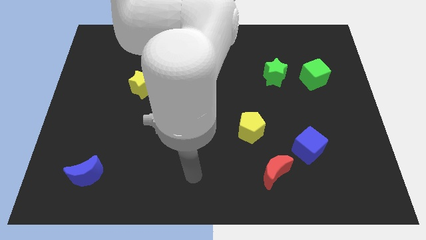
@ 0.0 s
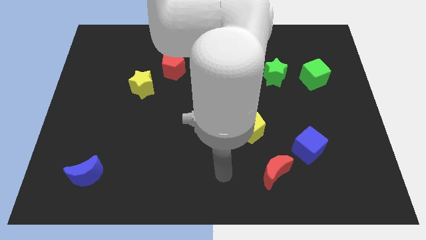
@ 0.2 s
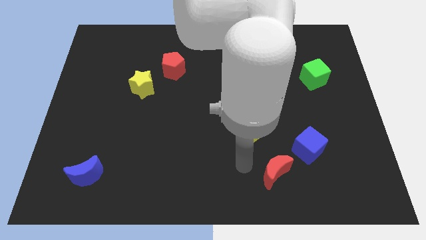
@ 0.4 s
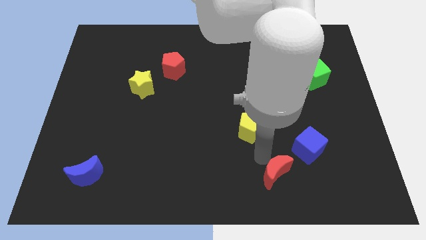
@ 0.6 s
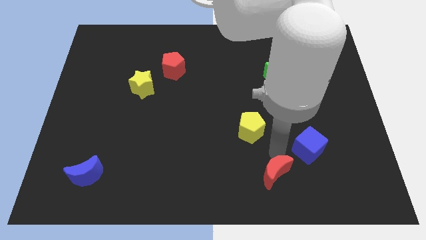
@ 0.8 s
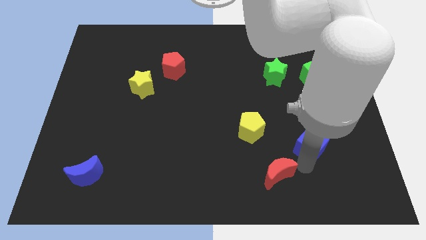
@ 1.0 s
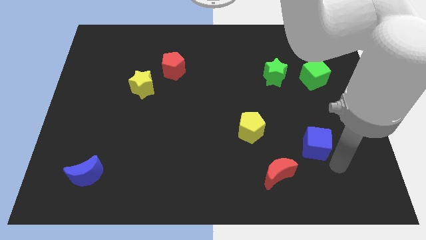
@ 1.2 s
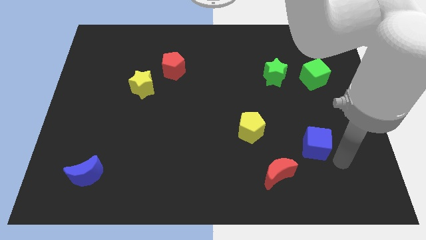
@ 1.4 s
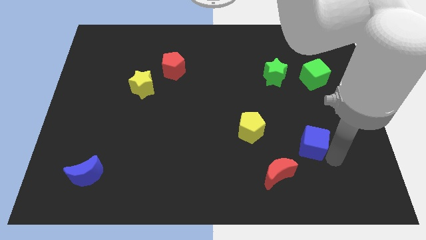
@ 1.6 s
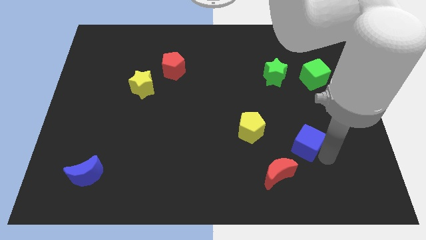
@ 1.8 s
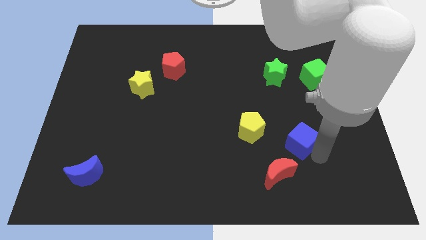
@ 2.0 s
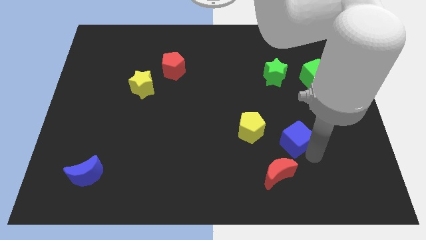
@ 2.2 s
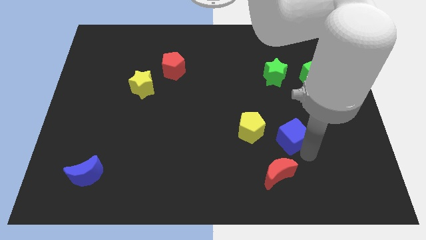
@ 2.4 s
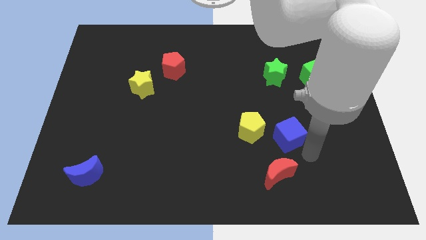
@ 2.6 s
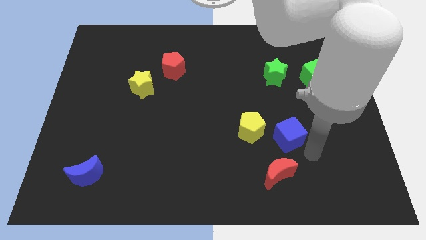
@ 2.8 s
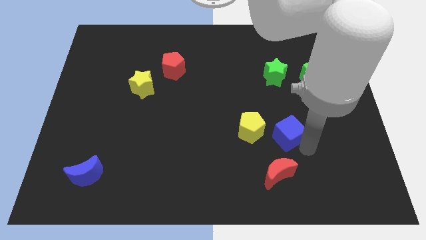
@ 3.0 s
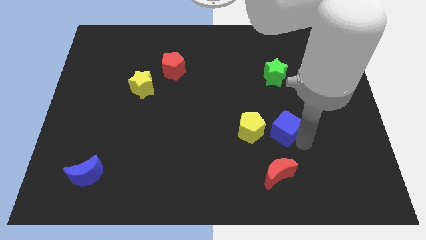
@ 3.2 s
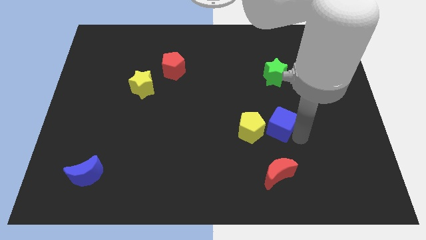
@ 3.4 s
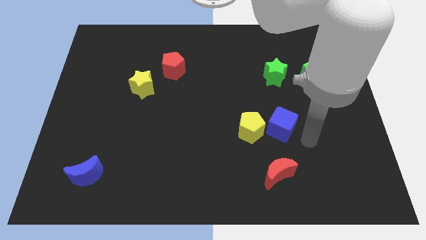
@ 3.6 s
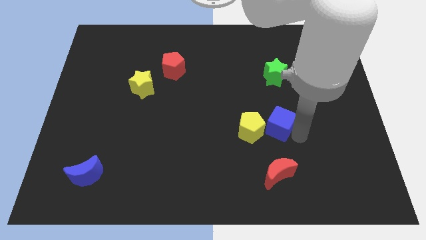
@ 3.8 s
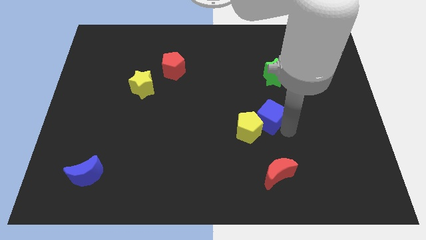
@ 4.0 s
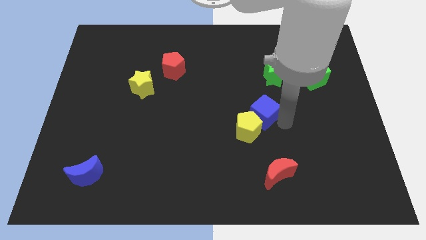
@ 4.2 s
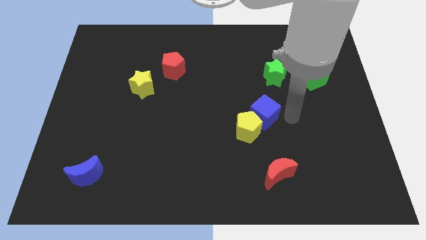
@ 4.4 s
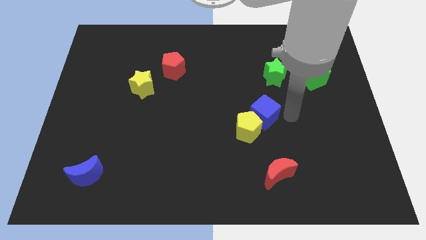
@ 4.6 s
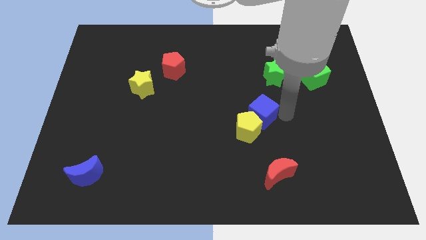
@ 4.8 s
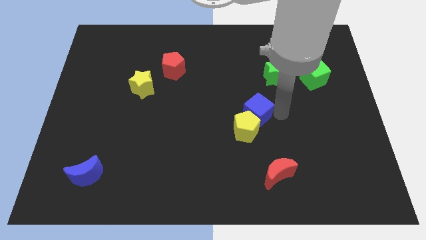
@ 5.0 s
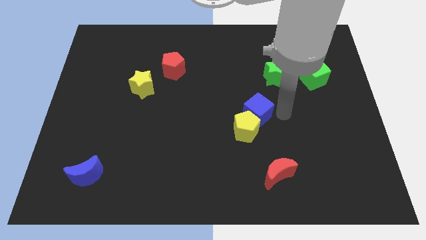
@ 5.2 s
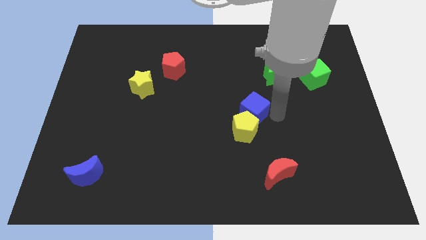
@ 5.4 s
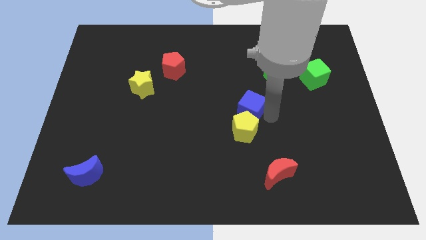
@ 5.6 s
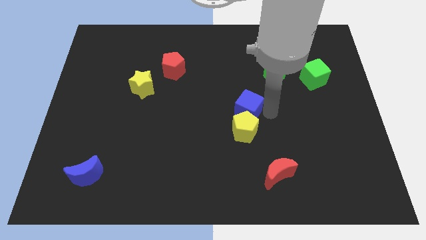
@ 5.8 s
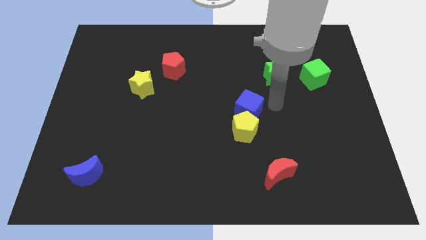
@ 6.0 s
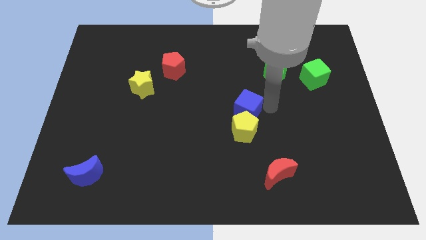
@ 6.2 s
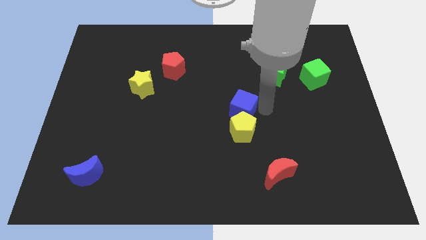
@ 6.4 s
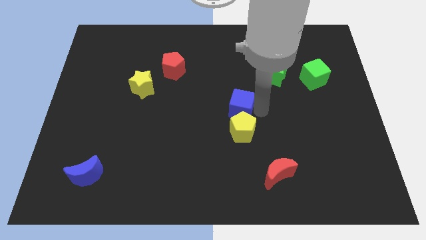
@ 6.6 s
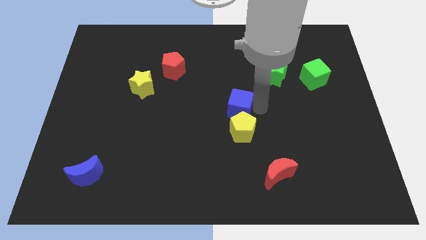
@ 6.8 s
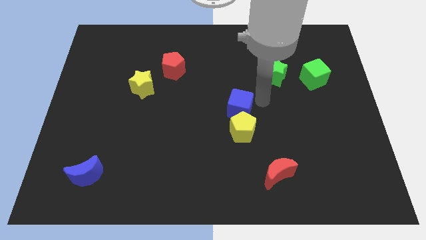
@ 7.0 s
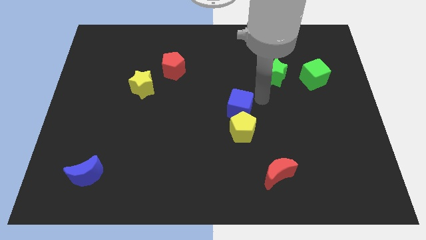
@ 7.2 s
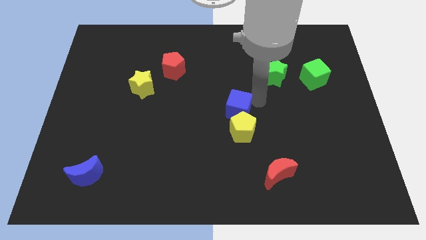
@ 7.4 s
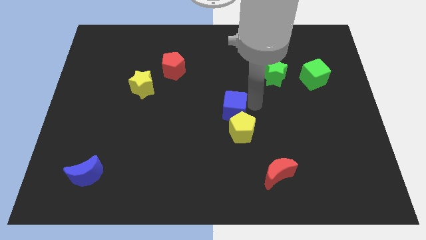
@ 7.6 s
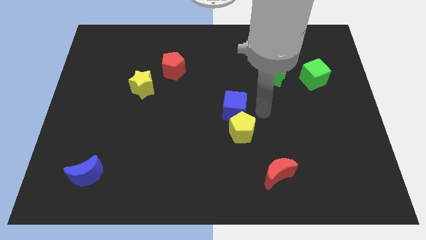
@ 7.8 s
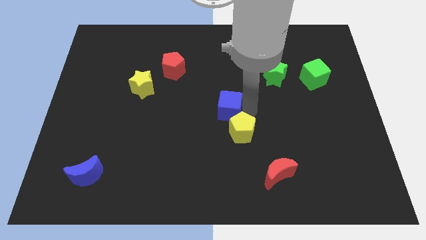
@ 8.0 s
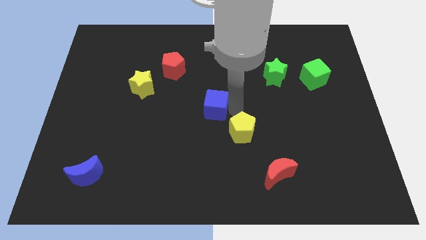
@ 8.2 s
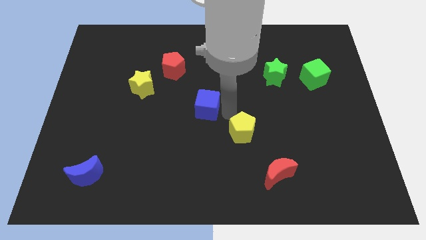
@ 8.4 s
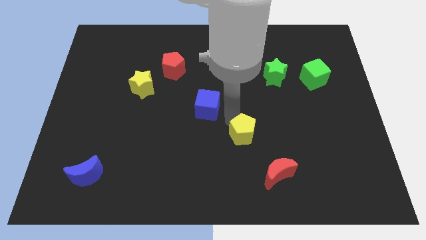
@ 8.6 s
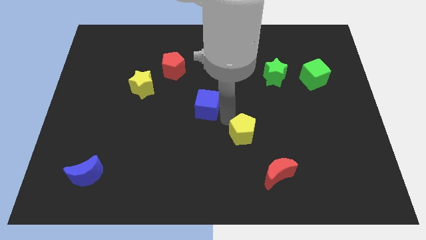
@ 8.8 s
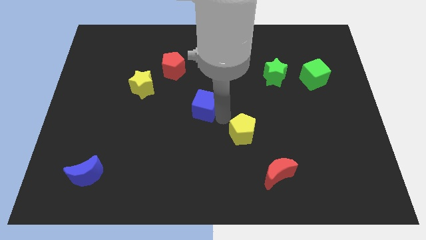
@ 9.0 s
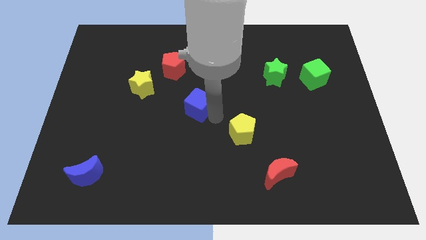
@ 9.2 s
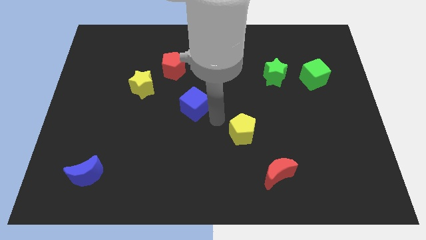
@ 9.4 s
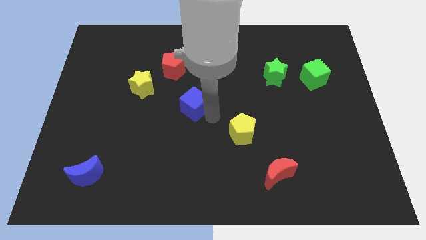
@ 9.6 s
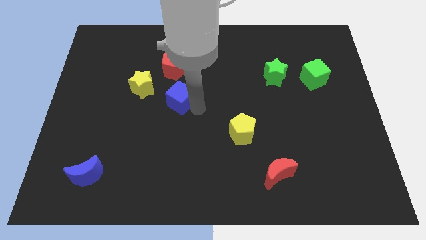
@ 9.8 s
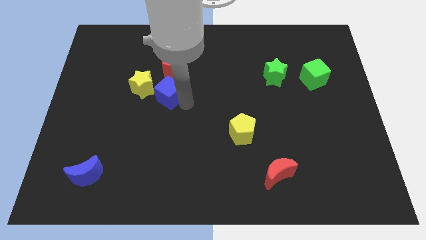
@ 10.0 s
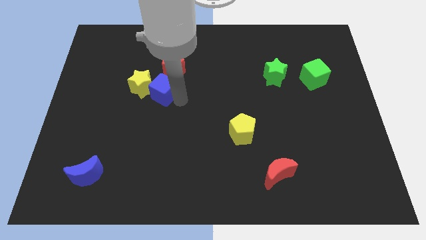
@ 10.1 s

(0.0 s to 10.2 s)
move the blue cube towards the yellow star

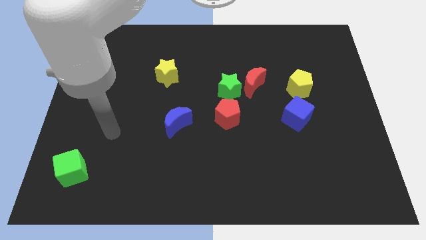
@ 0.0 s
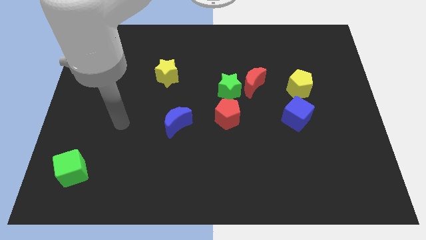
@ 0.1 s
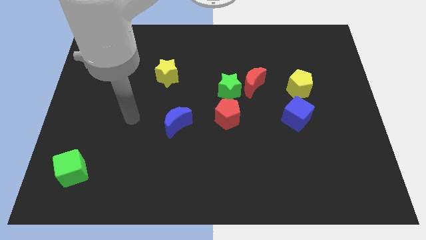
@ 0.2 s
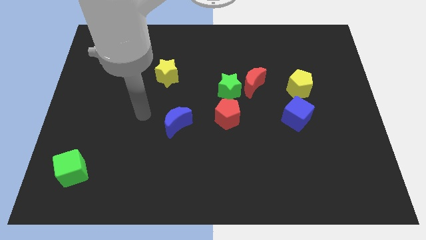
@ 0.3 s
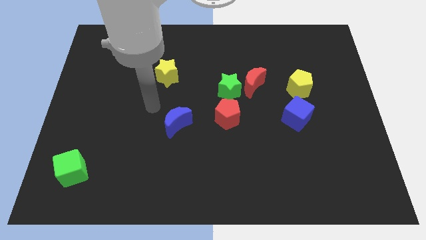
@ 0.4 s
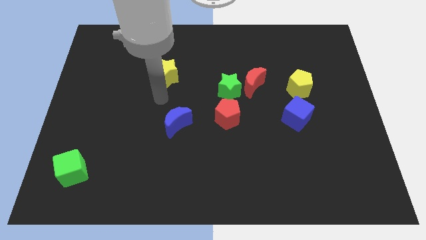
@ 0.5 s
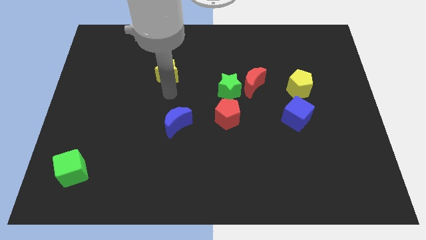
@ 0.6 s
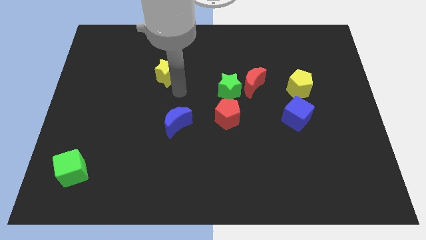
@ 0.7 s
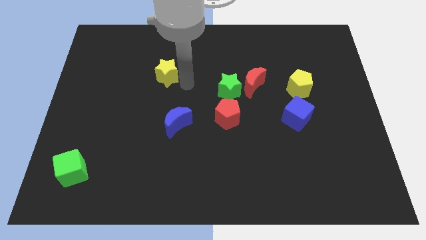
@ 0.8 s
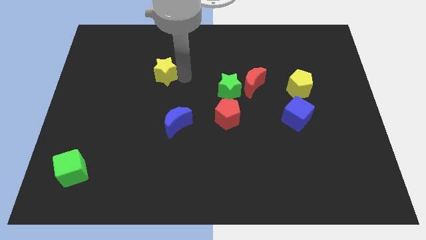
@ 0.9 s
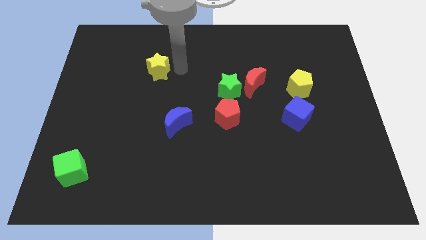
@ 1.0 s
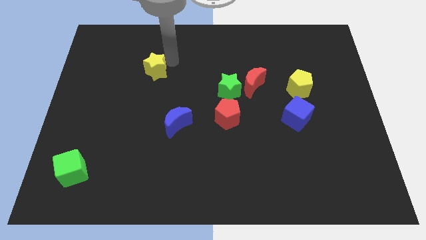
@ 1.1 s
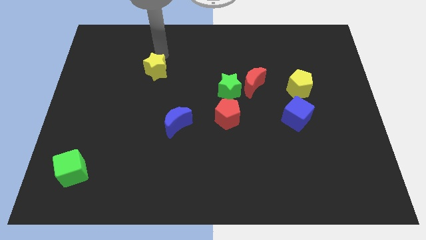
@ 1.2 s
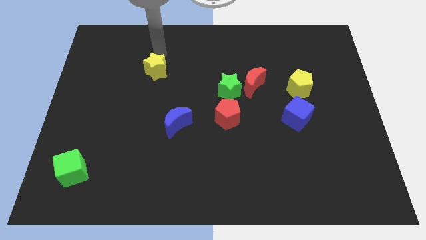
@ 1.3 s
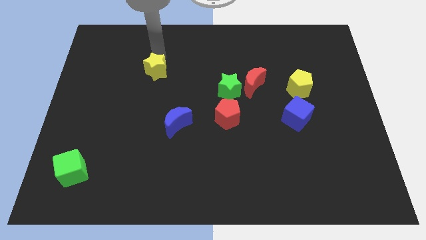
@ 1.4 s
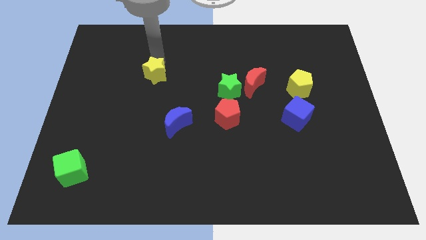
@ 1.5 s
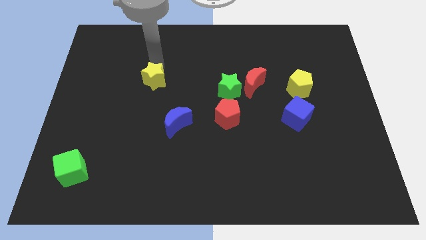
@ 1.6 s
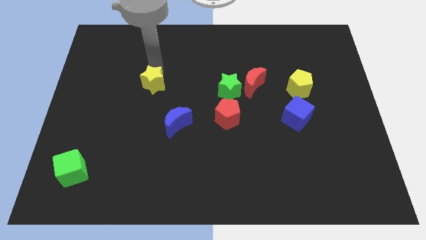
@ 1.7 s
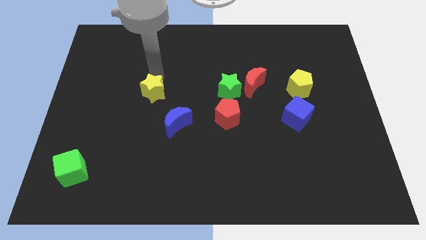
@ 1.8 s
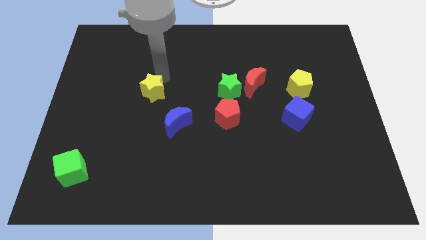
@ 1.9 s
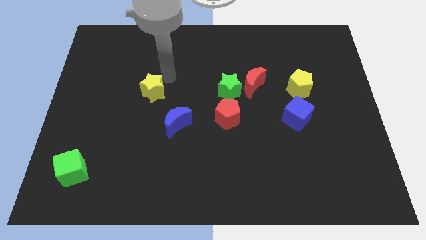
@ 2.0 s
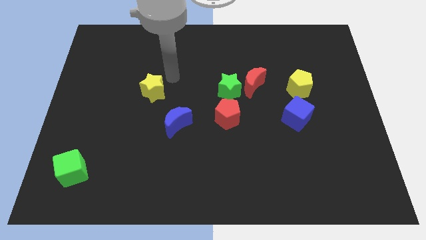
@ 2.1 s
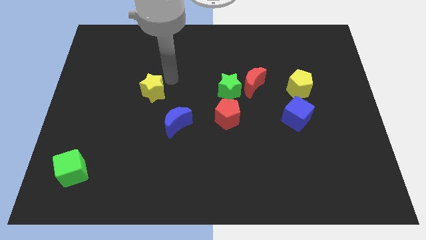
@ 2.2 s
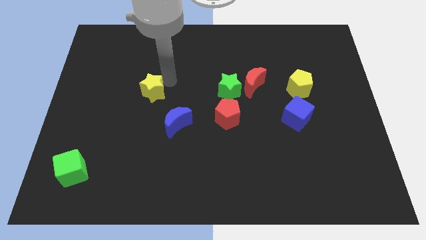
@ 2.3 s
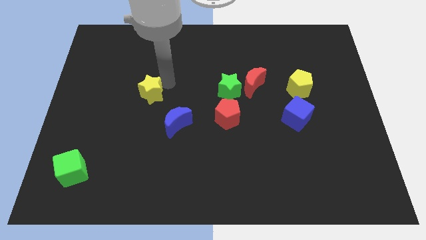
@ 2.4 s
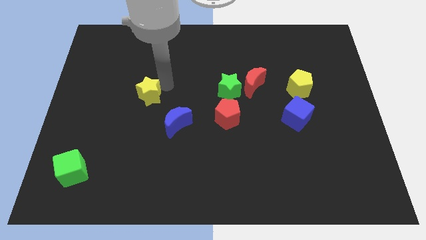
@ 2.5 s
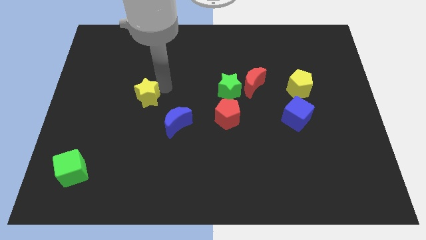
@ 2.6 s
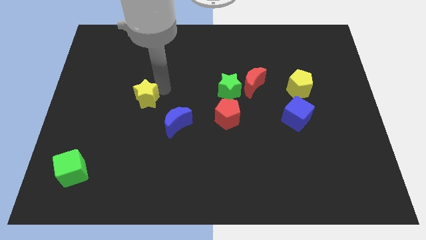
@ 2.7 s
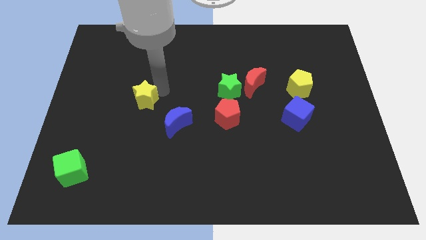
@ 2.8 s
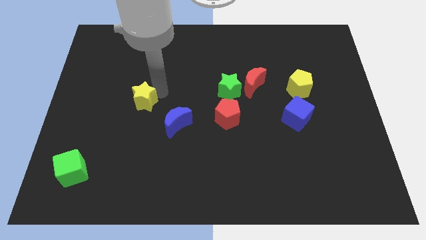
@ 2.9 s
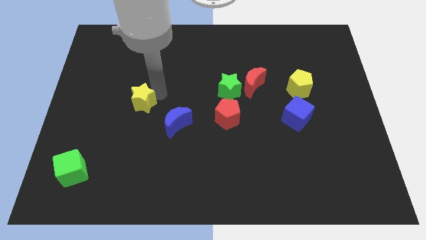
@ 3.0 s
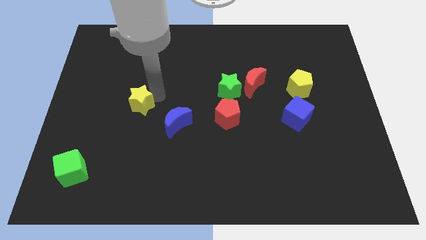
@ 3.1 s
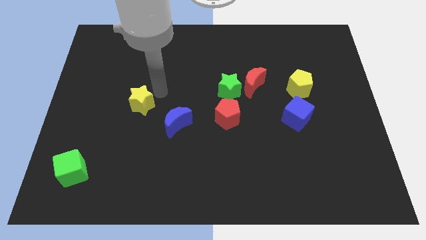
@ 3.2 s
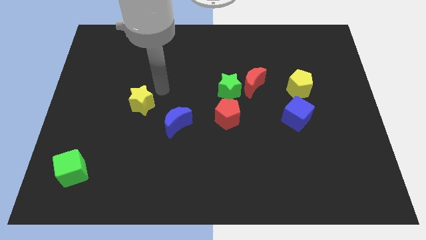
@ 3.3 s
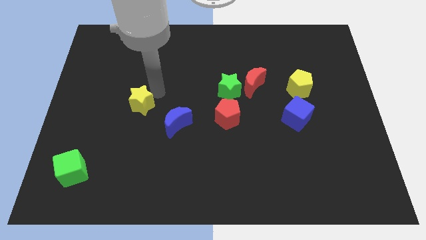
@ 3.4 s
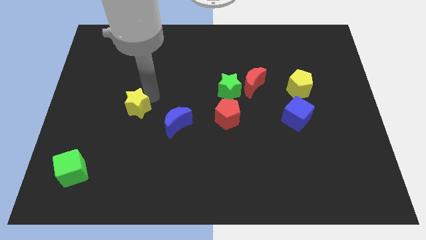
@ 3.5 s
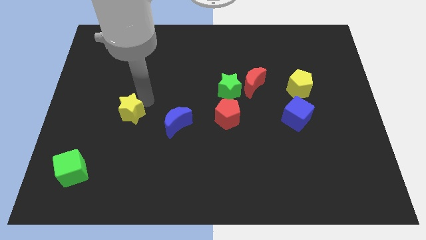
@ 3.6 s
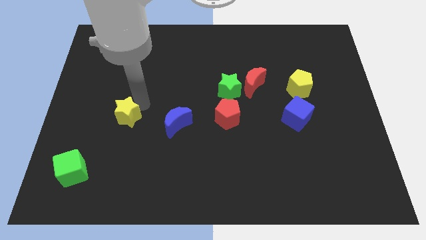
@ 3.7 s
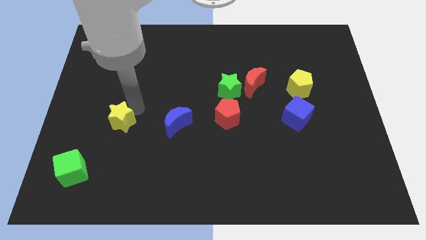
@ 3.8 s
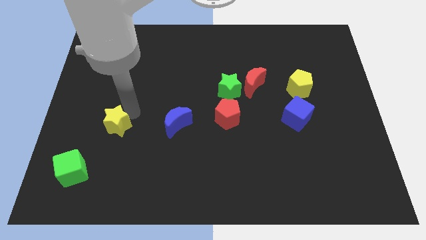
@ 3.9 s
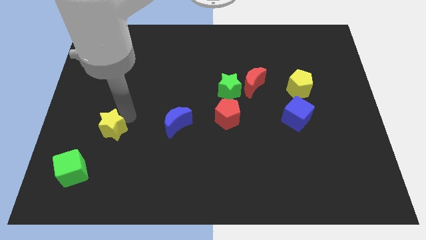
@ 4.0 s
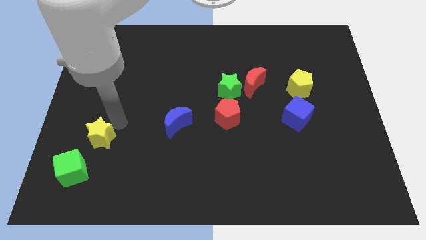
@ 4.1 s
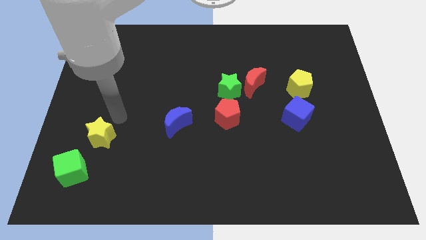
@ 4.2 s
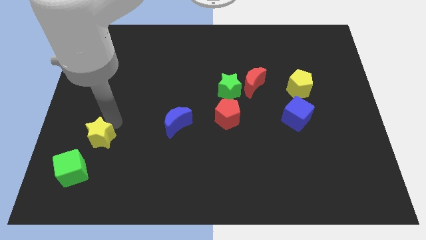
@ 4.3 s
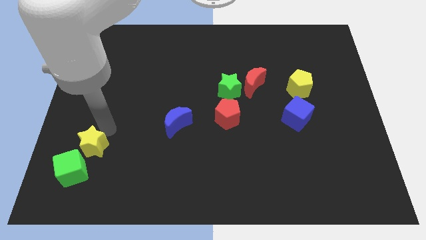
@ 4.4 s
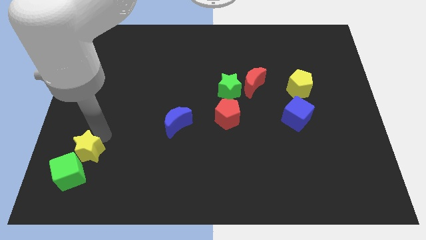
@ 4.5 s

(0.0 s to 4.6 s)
slide the yellow star towards the green cube
